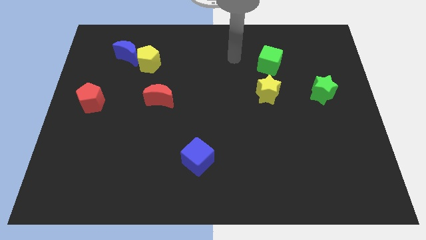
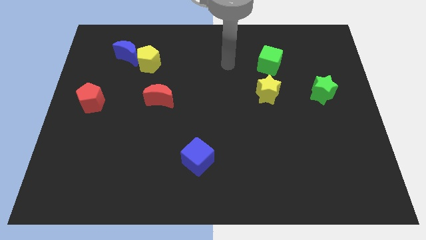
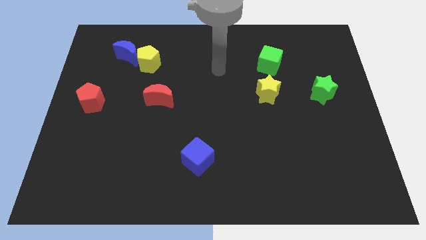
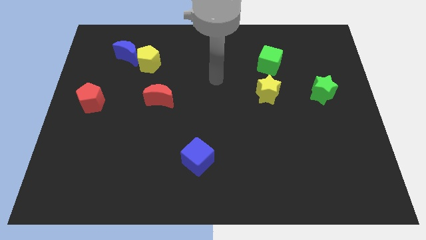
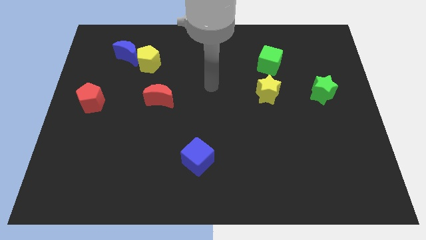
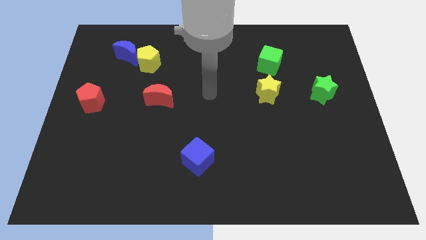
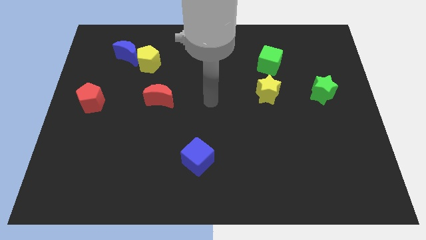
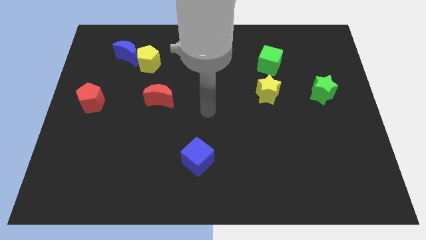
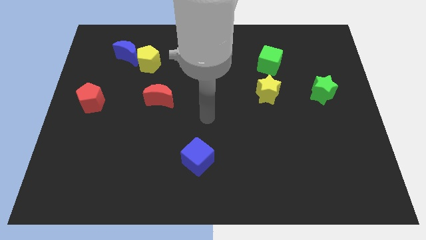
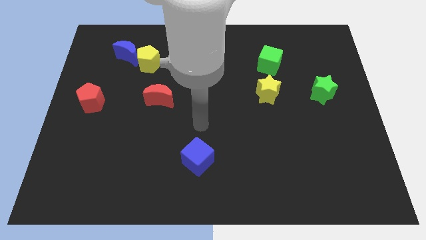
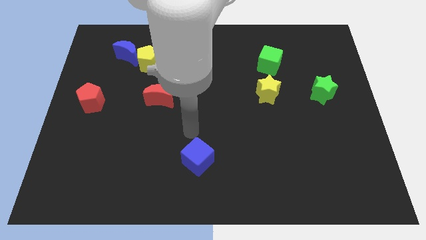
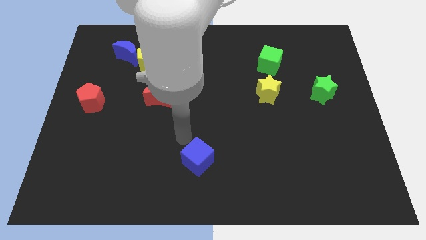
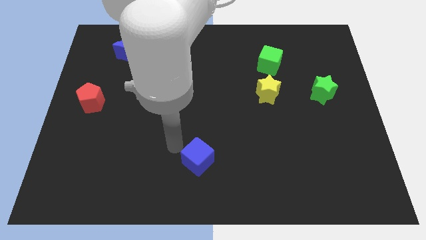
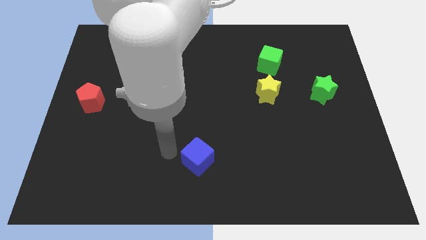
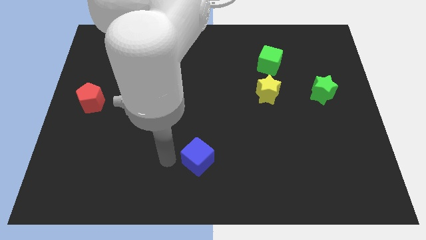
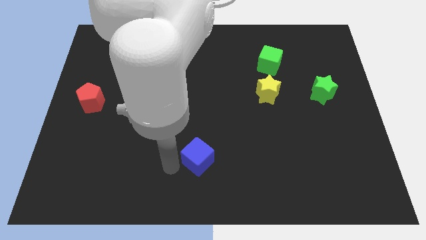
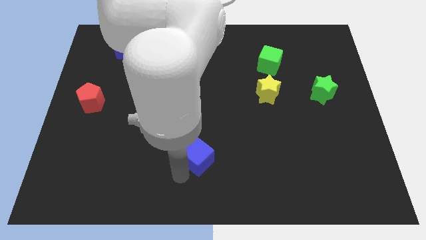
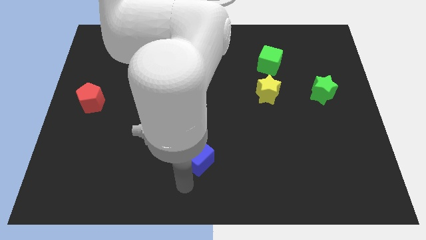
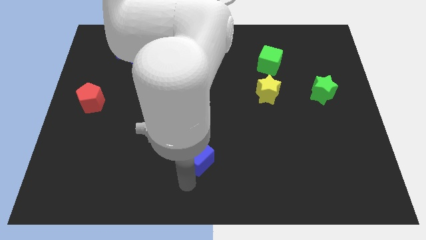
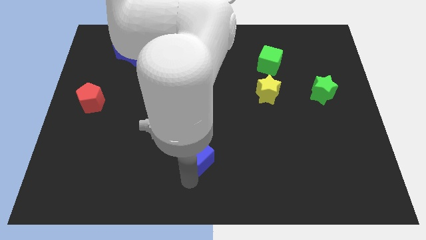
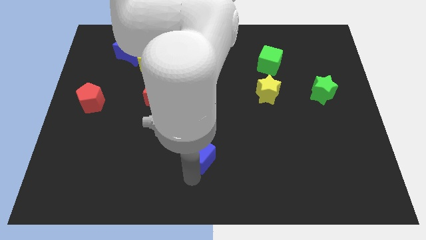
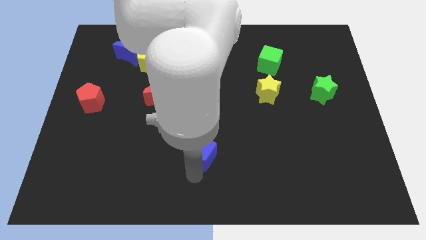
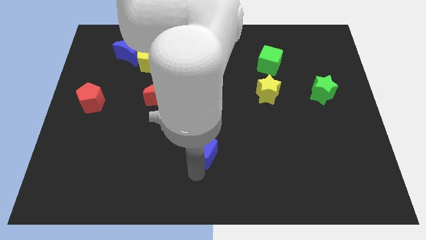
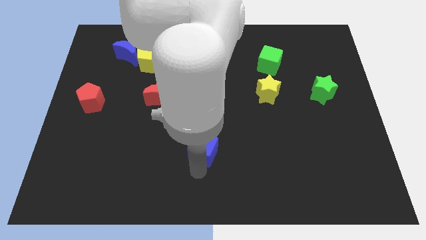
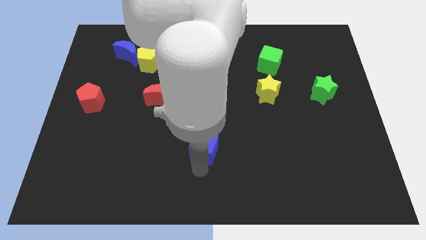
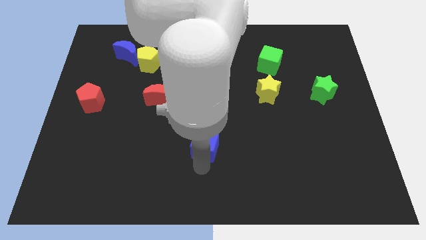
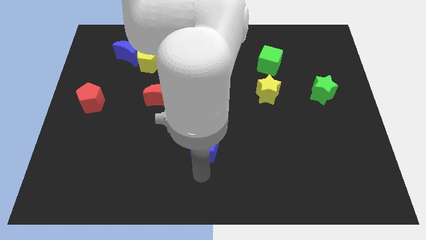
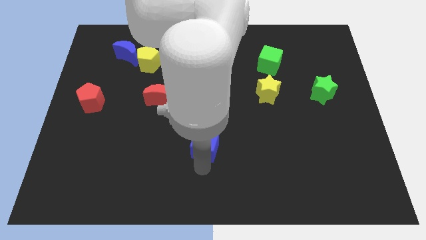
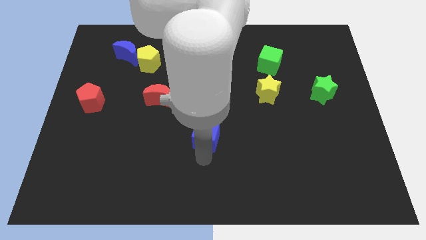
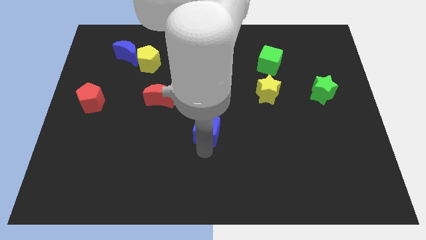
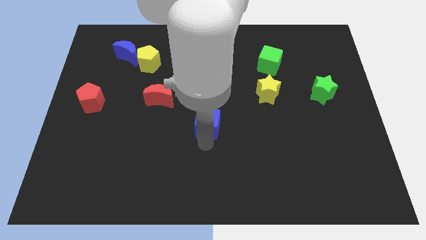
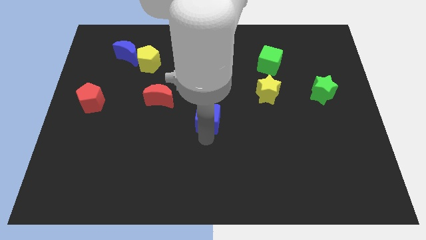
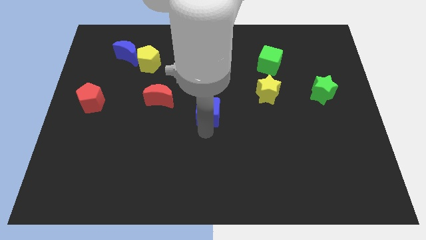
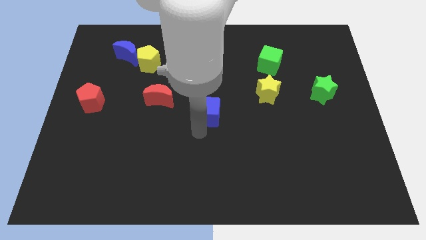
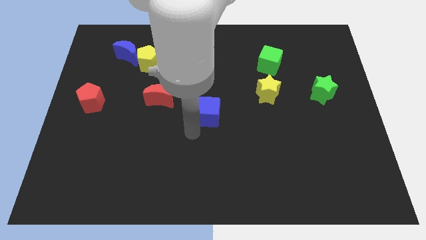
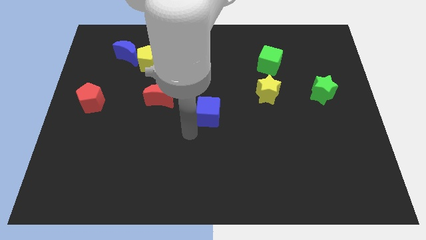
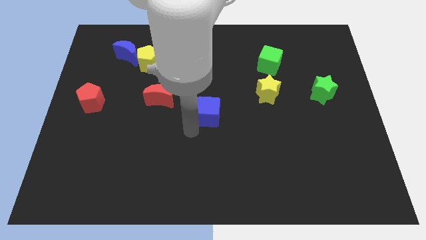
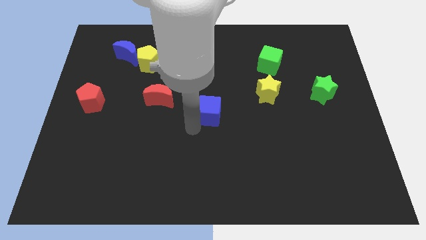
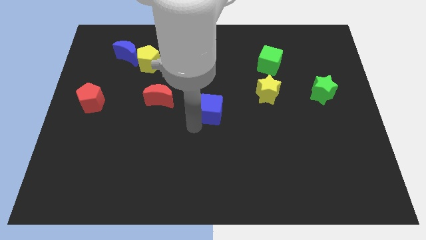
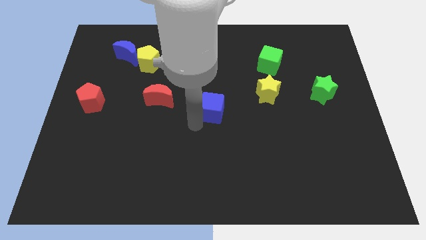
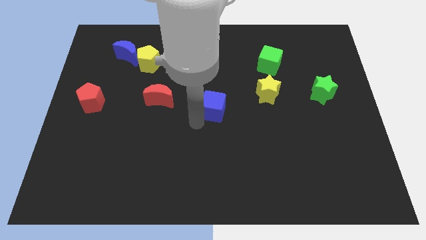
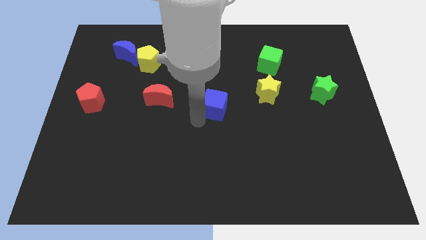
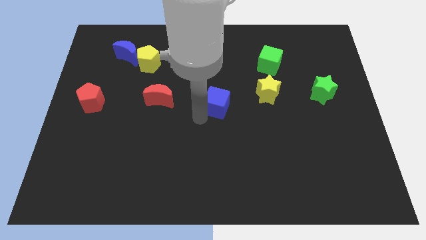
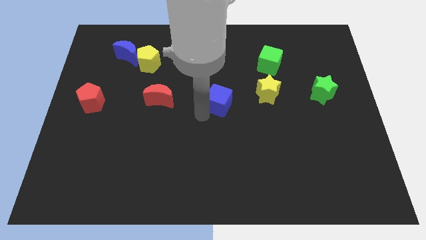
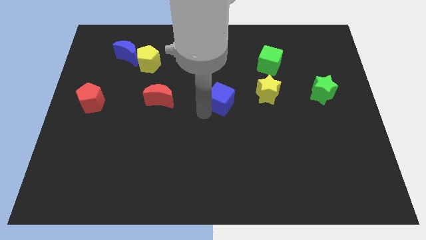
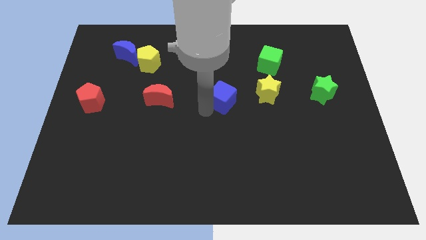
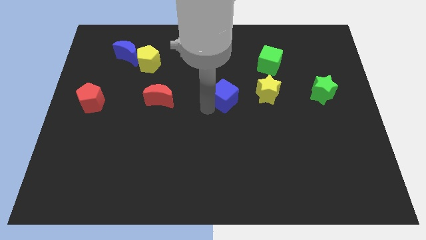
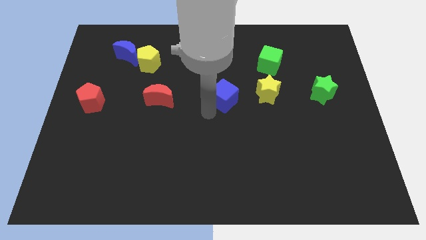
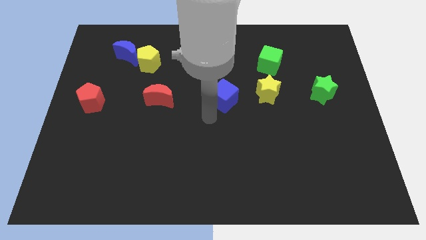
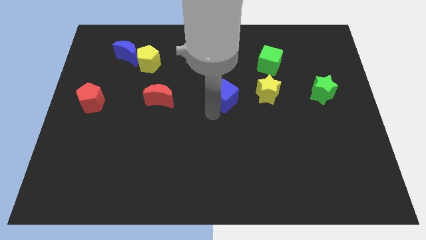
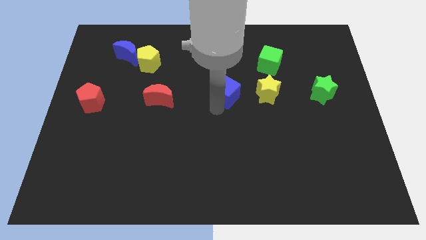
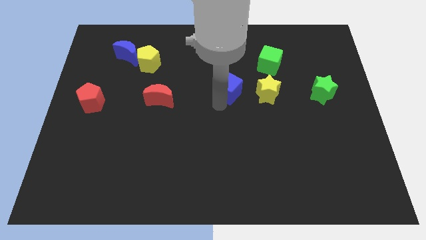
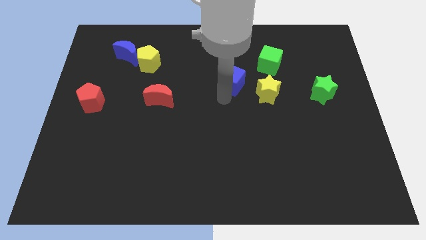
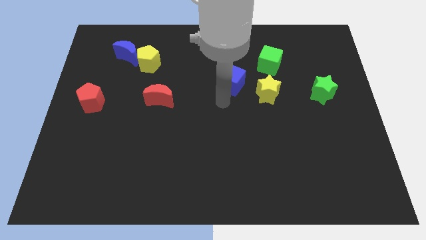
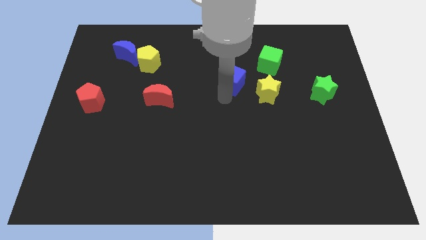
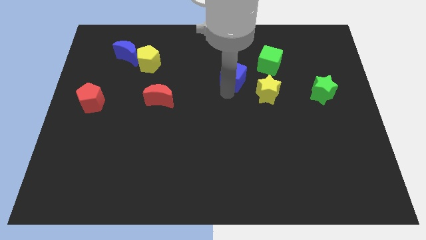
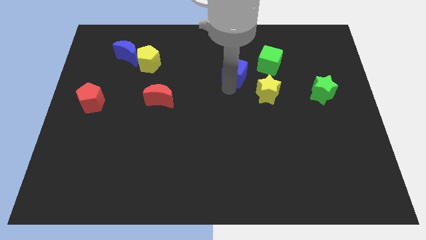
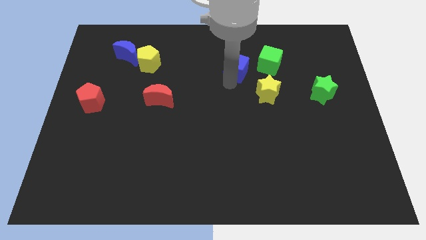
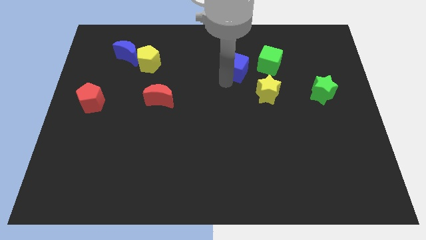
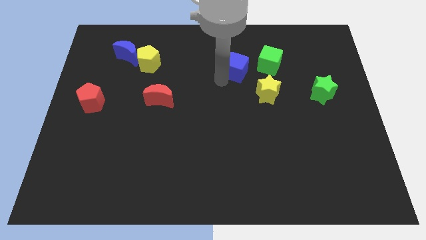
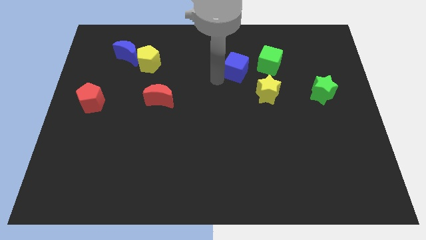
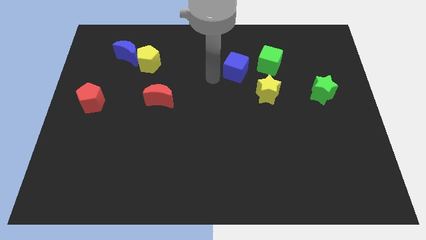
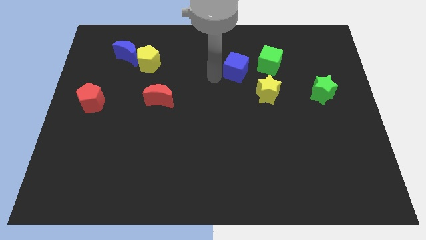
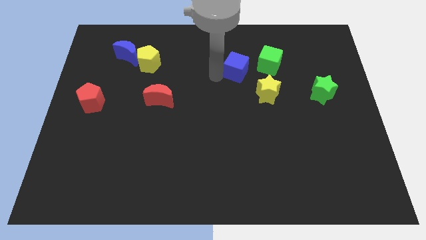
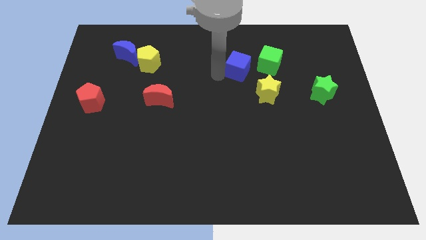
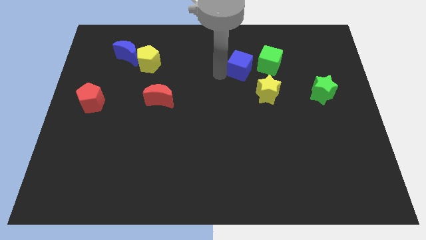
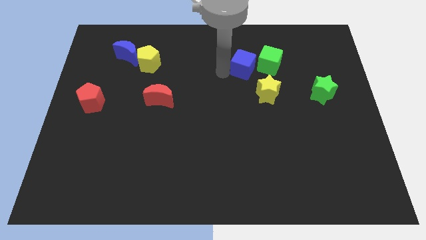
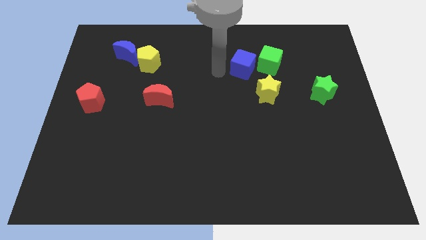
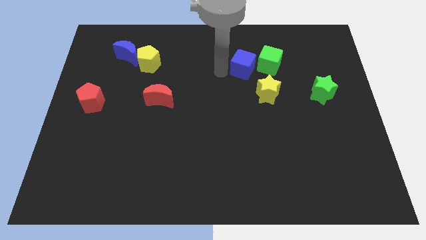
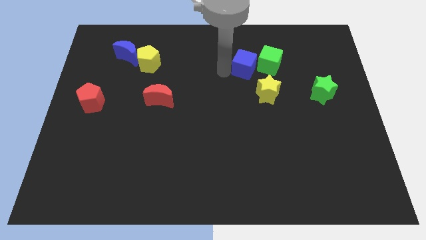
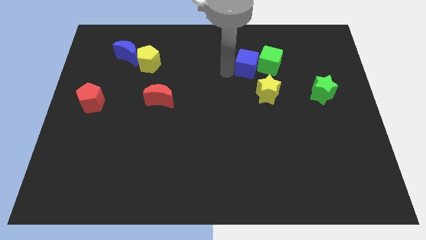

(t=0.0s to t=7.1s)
slide the blue cube next to the green cube

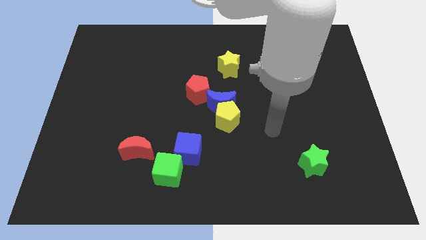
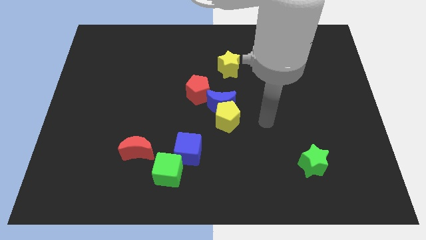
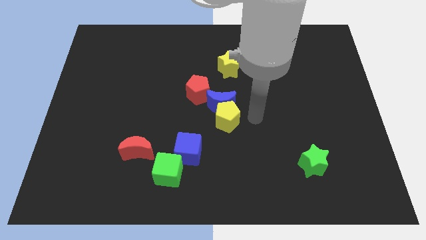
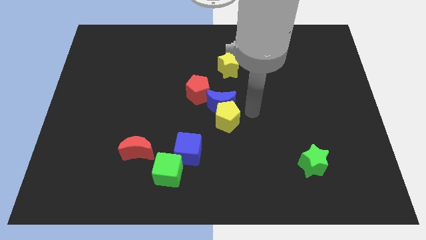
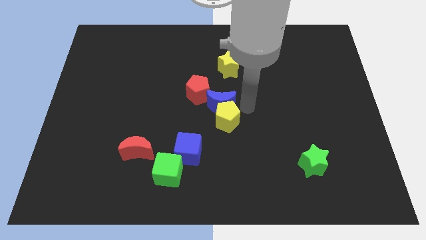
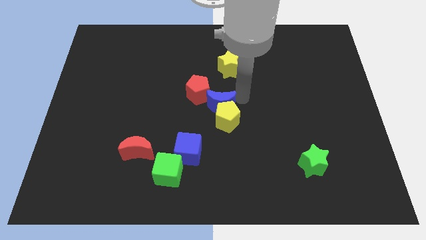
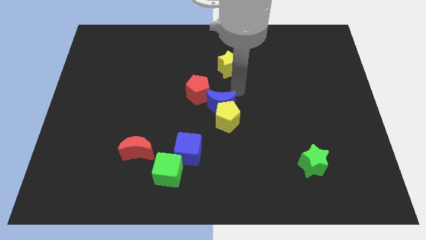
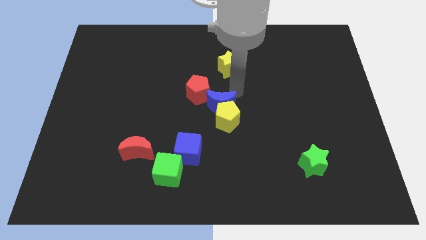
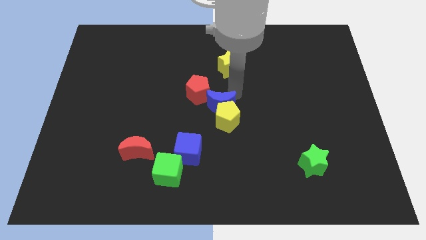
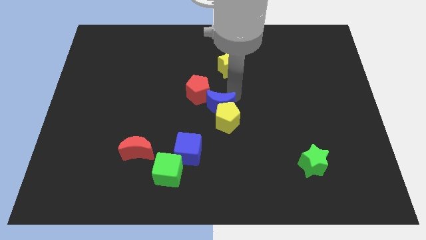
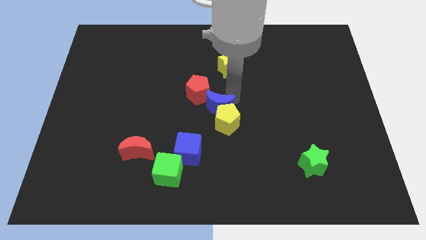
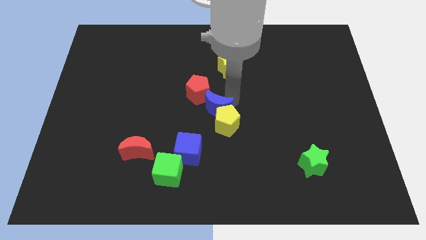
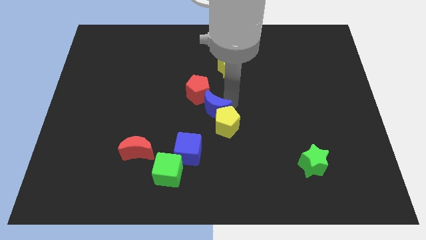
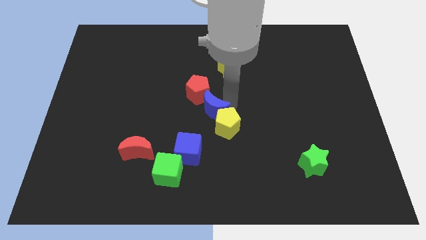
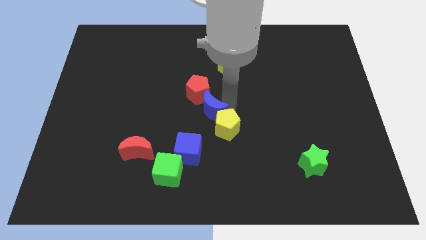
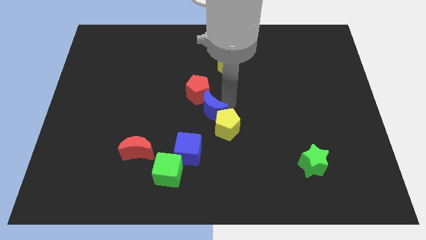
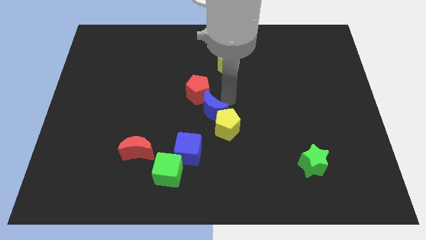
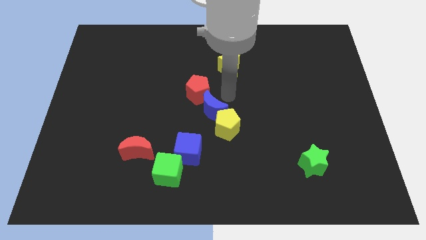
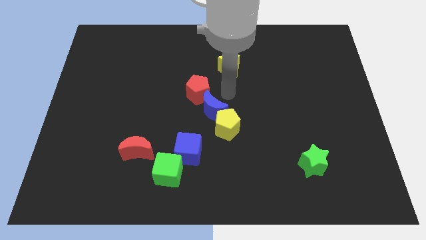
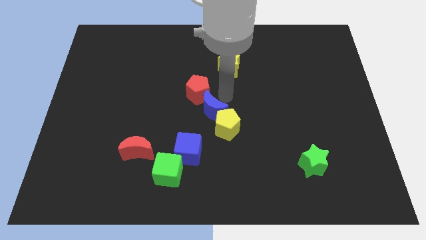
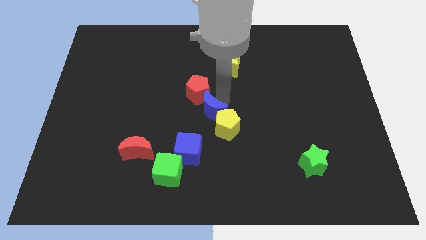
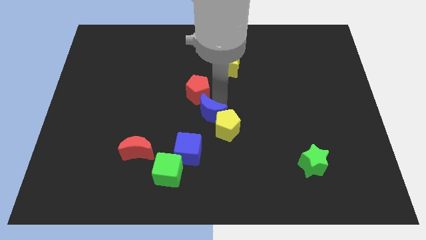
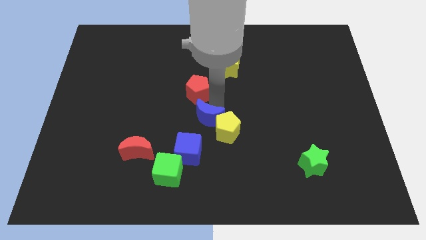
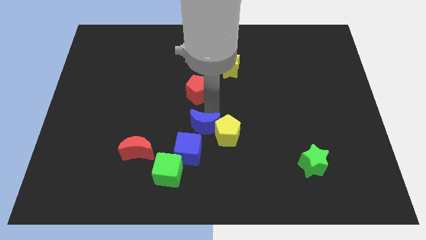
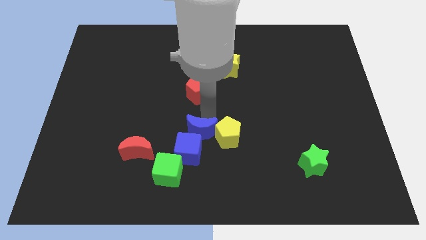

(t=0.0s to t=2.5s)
move the blue moon to the blue cube
